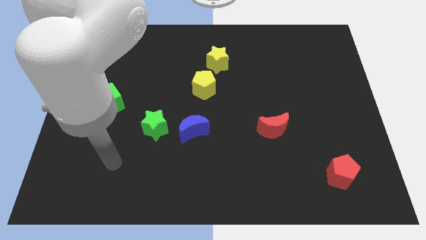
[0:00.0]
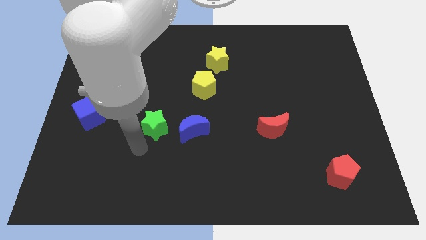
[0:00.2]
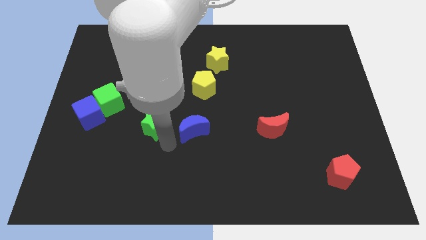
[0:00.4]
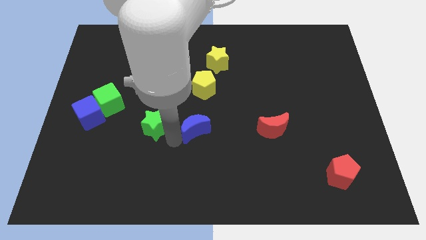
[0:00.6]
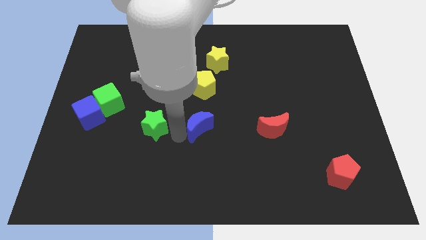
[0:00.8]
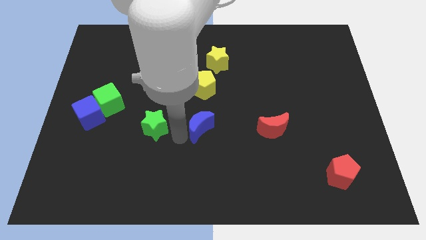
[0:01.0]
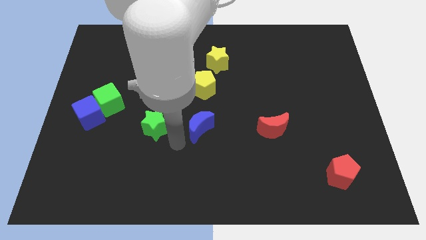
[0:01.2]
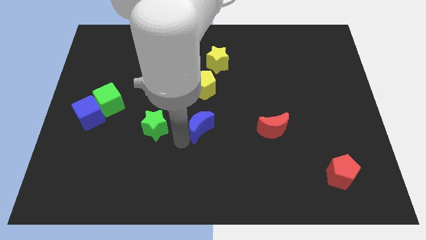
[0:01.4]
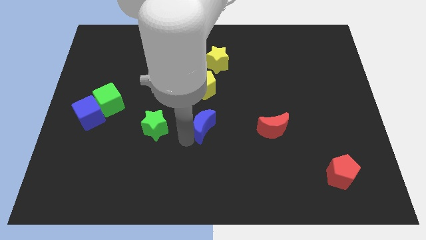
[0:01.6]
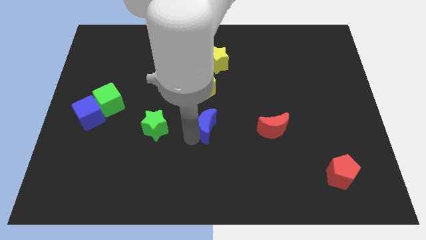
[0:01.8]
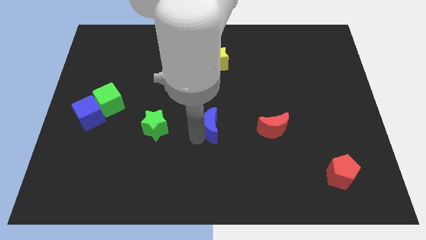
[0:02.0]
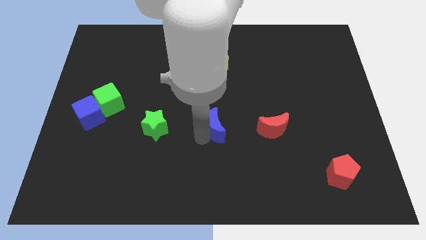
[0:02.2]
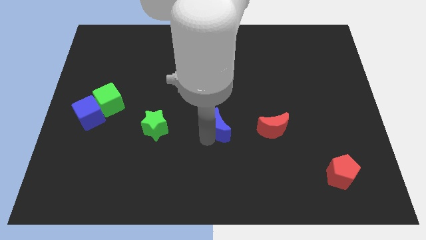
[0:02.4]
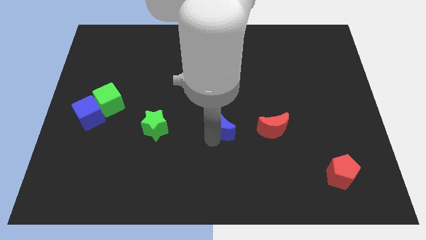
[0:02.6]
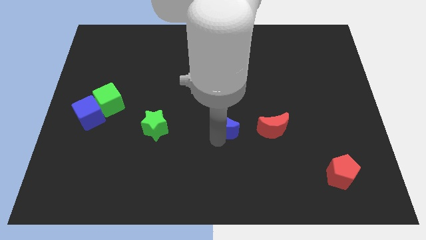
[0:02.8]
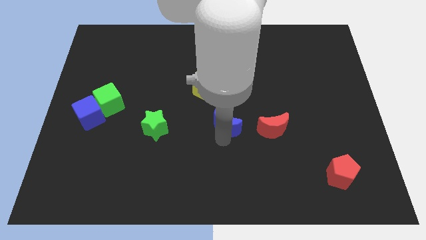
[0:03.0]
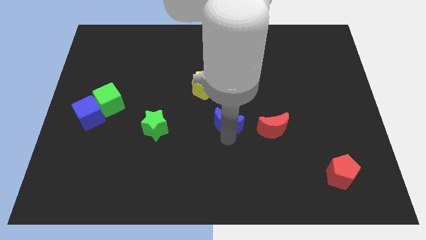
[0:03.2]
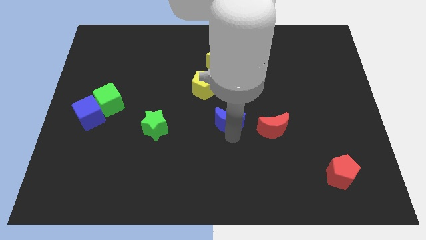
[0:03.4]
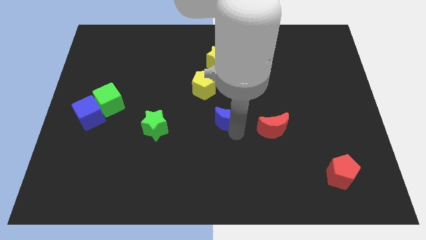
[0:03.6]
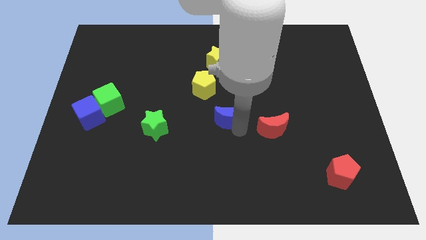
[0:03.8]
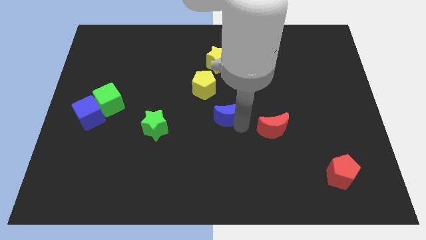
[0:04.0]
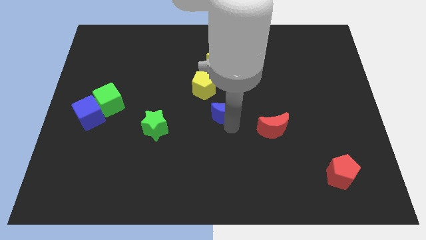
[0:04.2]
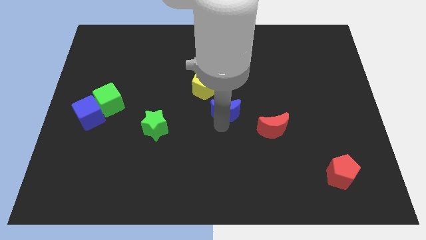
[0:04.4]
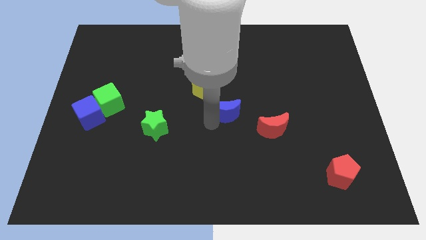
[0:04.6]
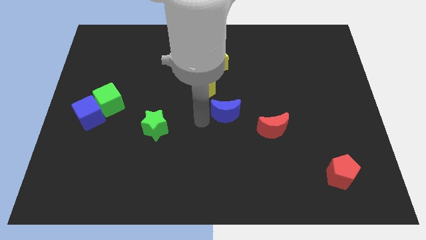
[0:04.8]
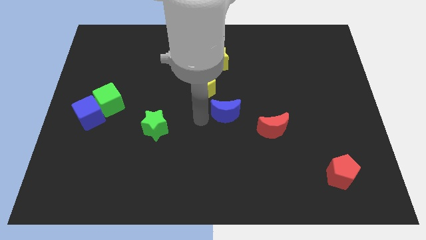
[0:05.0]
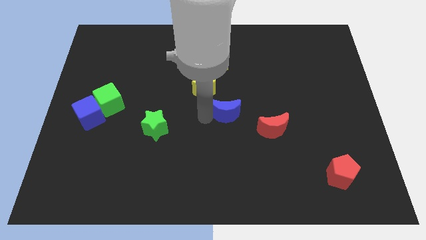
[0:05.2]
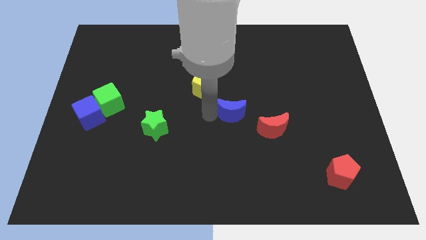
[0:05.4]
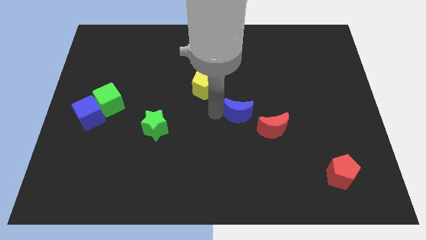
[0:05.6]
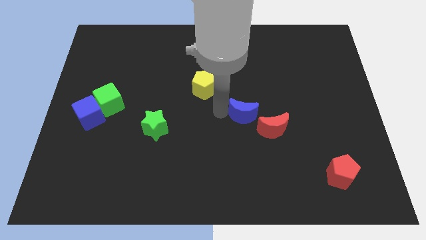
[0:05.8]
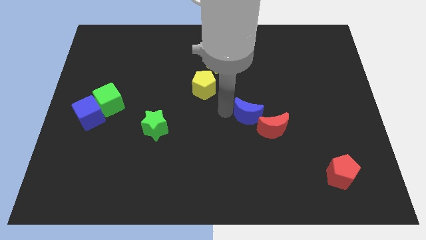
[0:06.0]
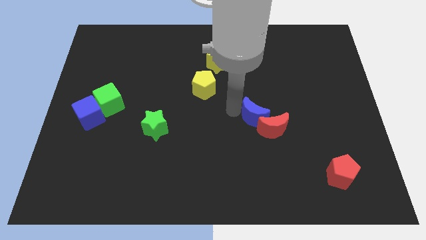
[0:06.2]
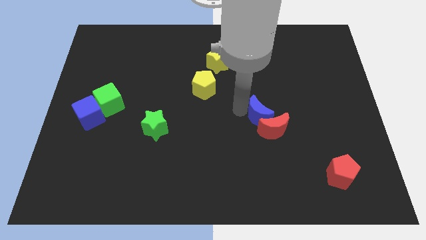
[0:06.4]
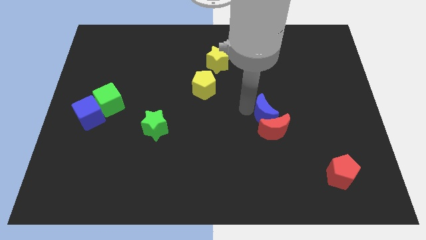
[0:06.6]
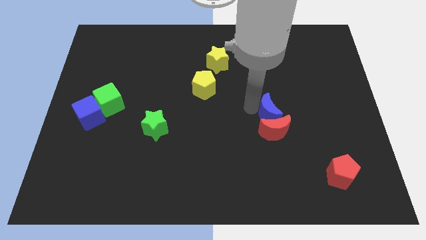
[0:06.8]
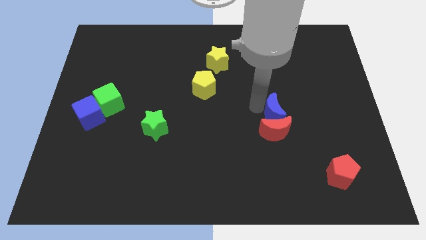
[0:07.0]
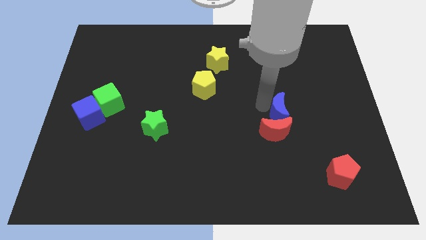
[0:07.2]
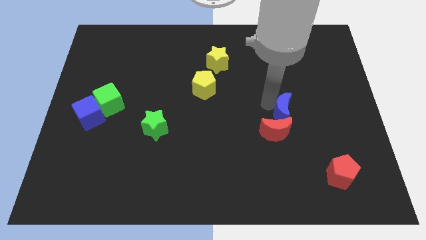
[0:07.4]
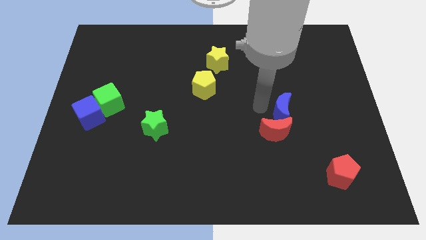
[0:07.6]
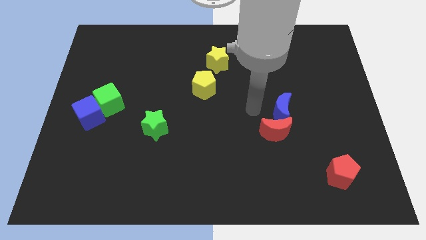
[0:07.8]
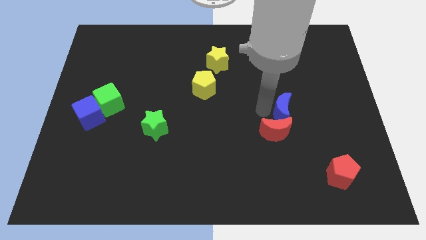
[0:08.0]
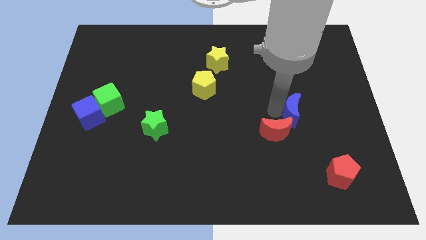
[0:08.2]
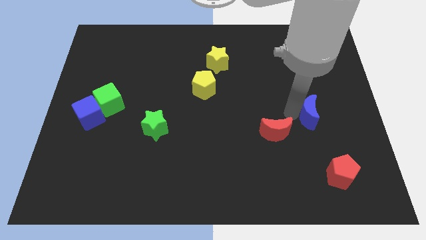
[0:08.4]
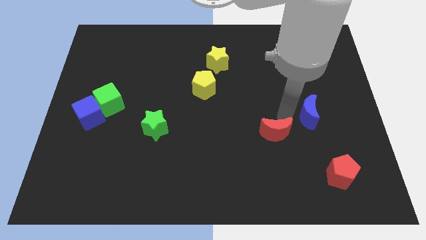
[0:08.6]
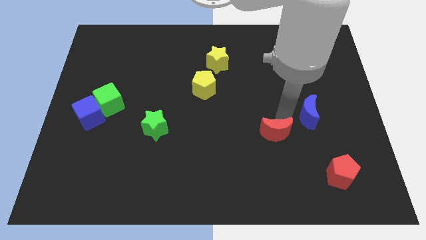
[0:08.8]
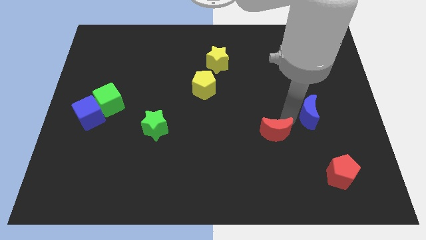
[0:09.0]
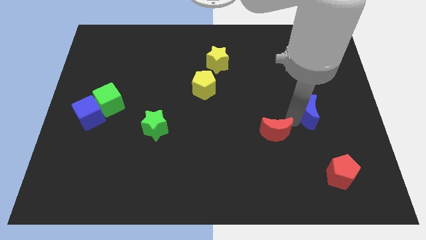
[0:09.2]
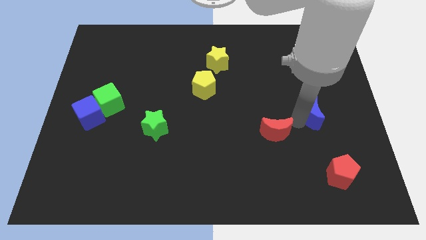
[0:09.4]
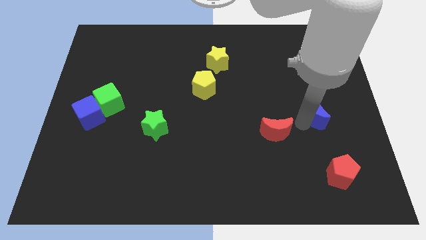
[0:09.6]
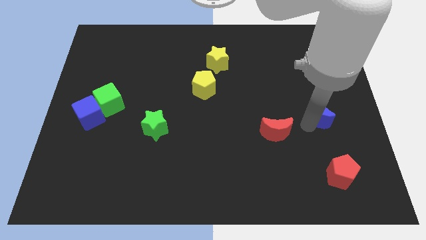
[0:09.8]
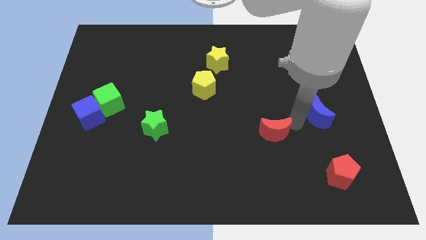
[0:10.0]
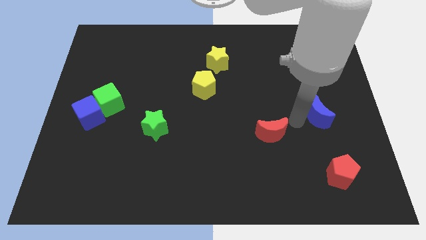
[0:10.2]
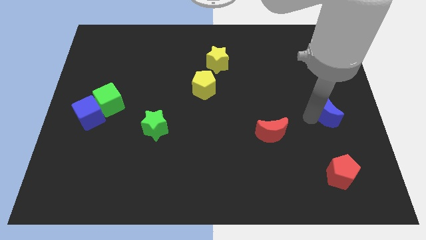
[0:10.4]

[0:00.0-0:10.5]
move the blue moon to the center right

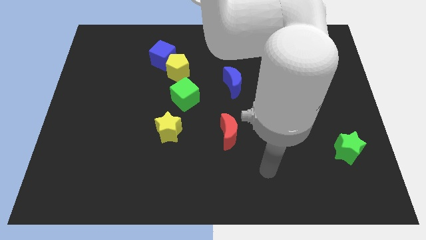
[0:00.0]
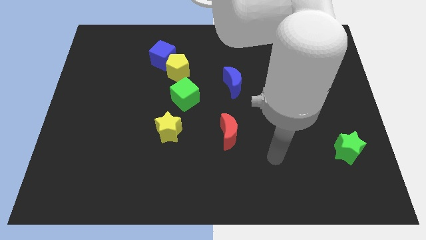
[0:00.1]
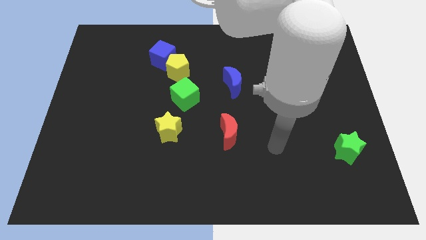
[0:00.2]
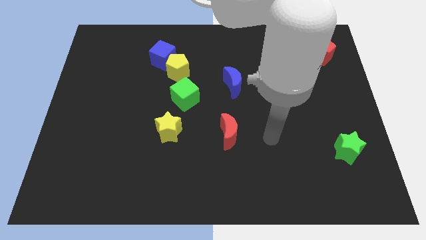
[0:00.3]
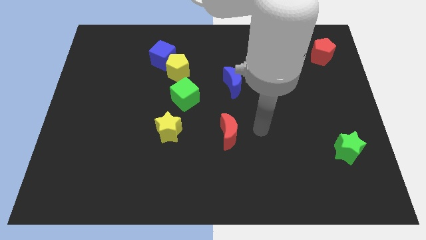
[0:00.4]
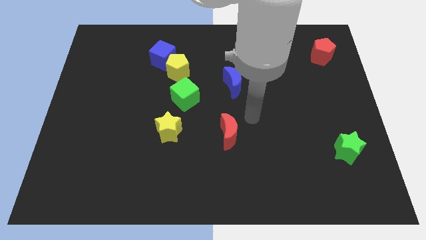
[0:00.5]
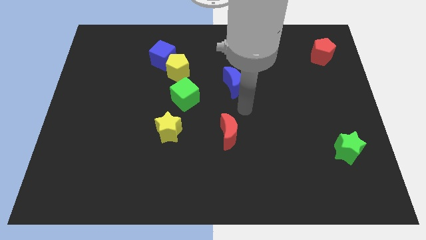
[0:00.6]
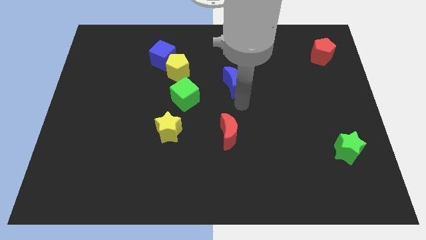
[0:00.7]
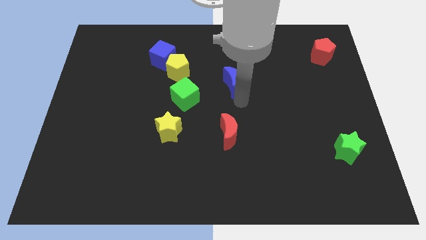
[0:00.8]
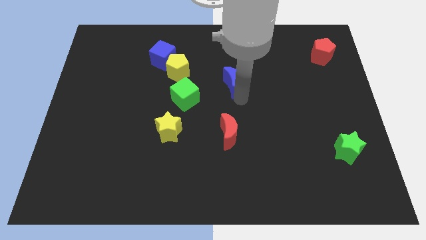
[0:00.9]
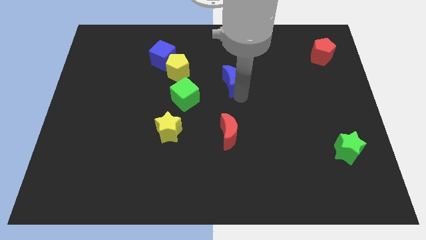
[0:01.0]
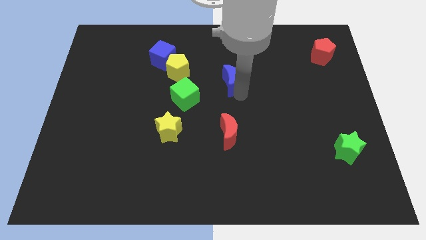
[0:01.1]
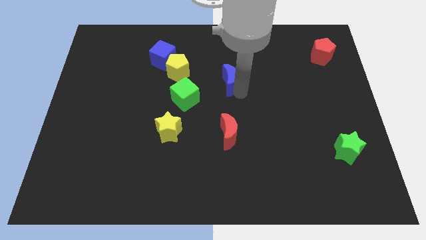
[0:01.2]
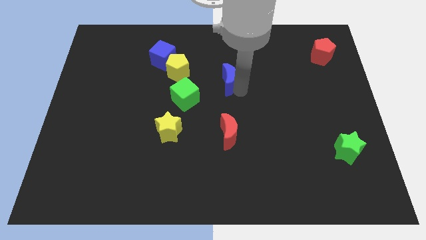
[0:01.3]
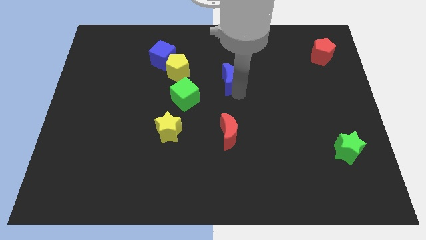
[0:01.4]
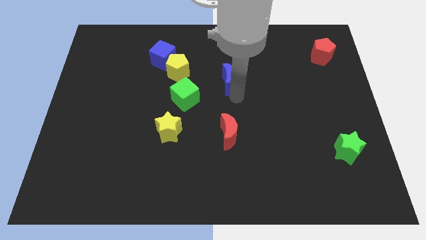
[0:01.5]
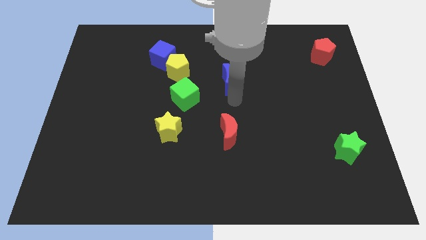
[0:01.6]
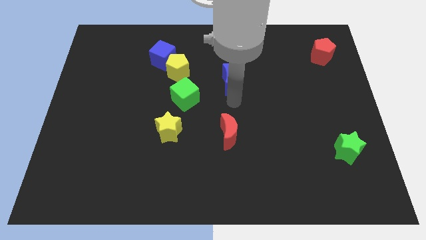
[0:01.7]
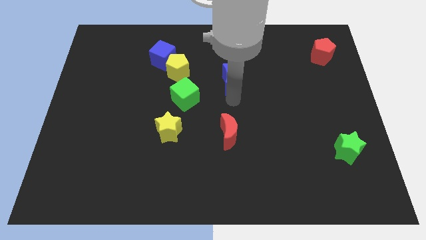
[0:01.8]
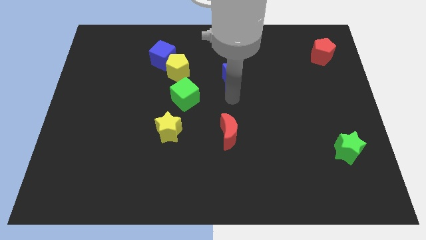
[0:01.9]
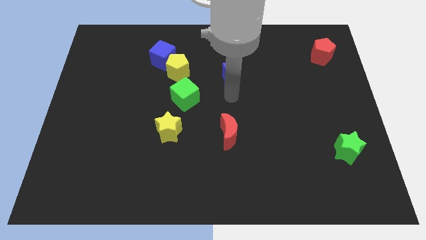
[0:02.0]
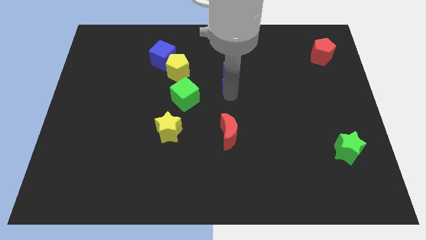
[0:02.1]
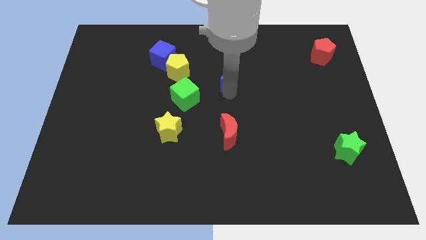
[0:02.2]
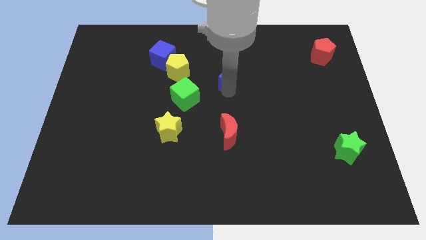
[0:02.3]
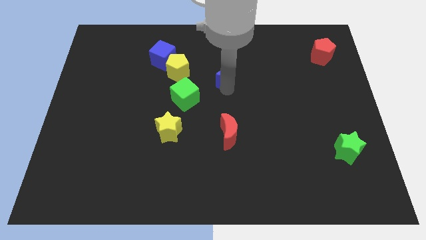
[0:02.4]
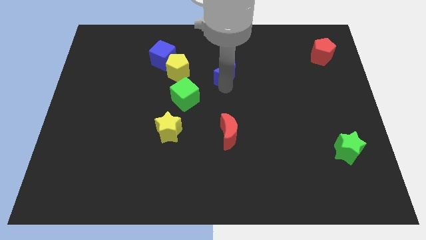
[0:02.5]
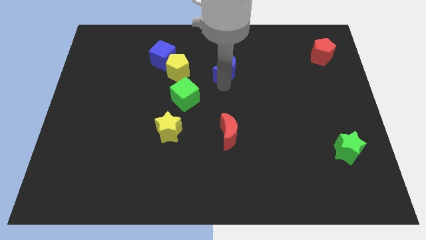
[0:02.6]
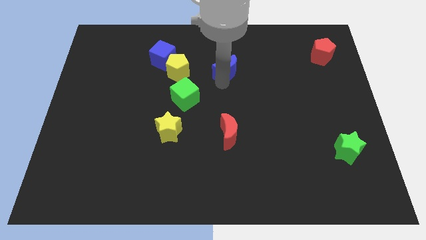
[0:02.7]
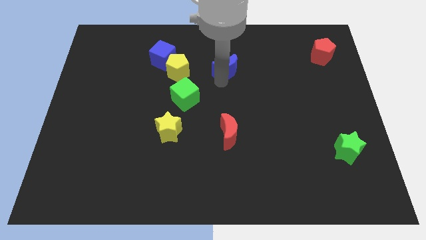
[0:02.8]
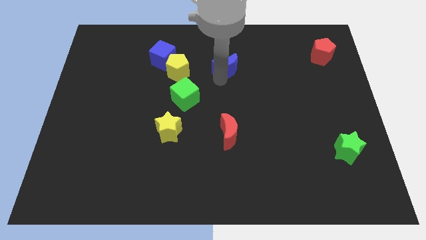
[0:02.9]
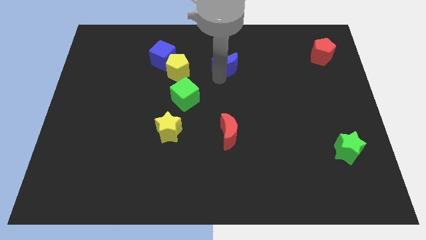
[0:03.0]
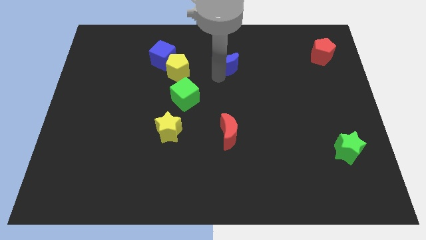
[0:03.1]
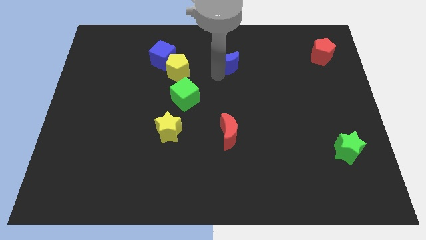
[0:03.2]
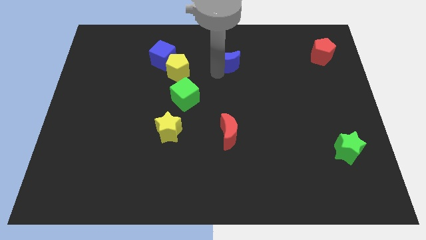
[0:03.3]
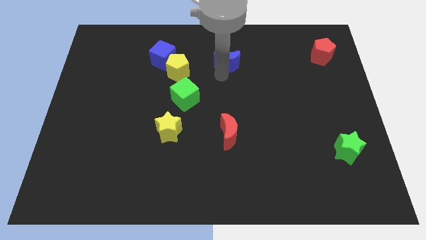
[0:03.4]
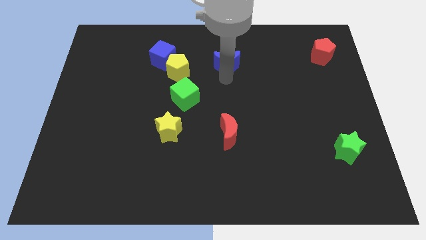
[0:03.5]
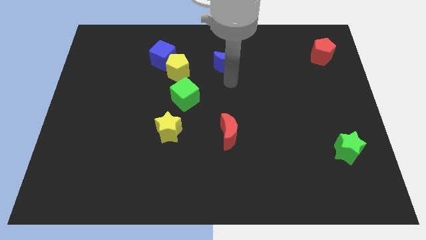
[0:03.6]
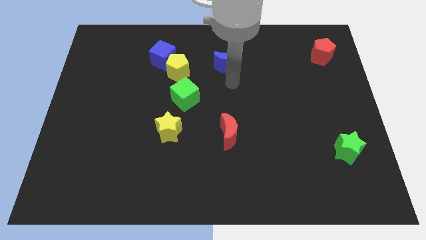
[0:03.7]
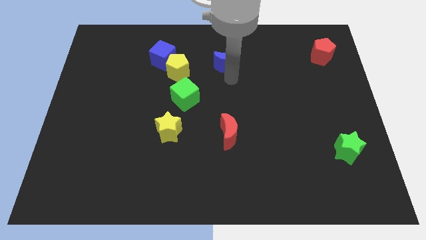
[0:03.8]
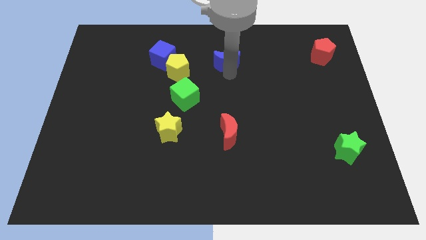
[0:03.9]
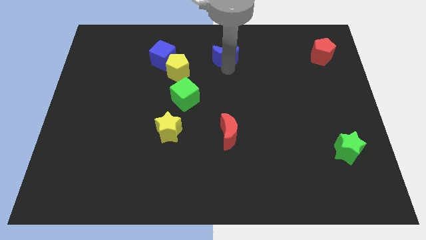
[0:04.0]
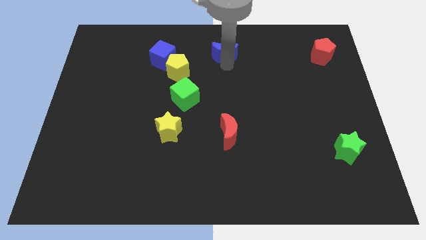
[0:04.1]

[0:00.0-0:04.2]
put the blue moon to the towards your base
